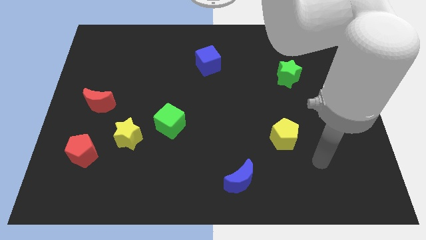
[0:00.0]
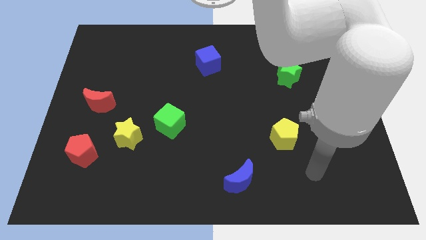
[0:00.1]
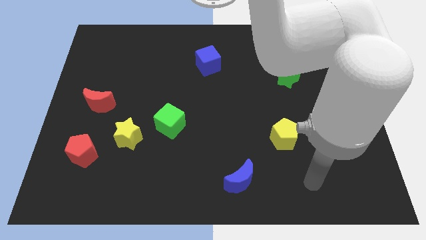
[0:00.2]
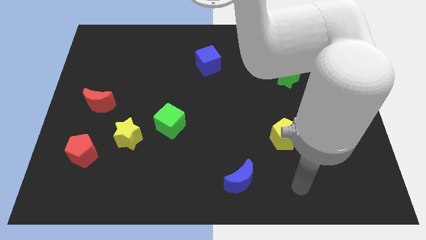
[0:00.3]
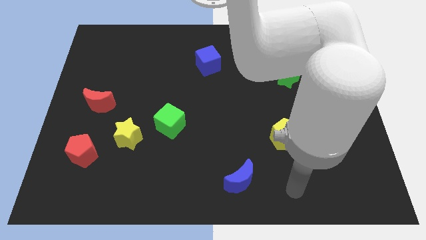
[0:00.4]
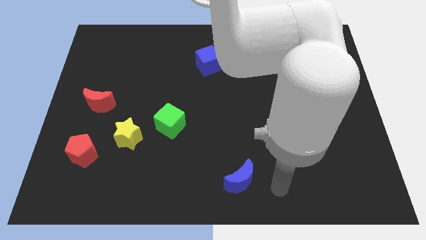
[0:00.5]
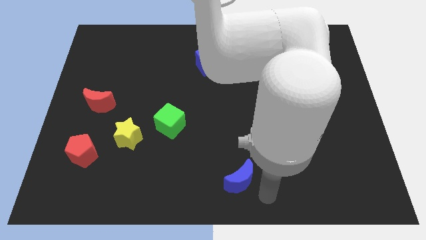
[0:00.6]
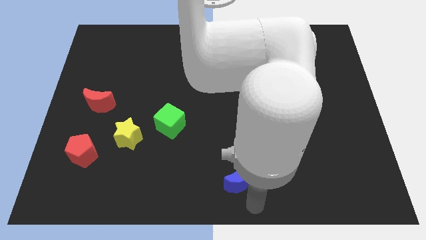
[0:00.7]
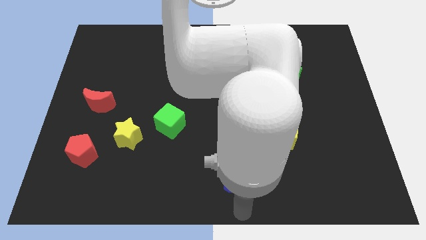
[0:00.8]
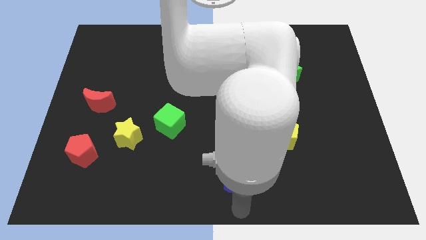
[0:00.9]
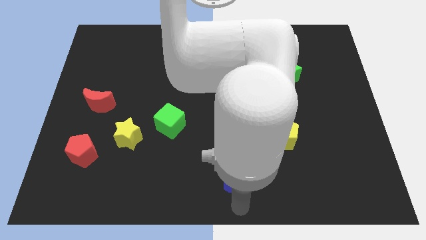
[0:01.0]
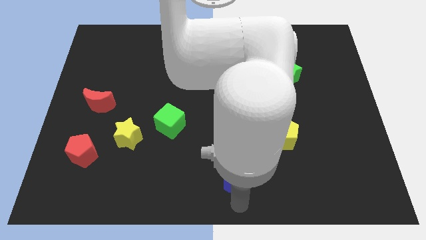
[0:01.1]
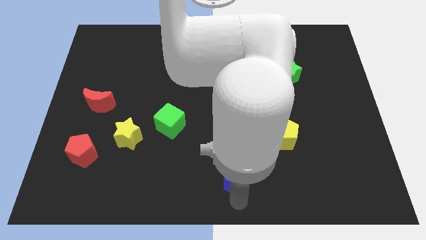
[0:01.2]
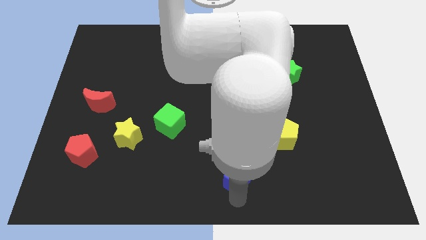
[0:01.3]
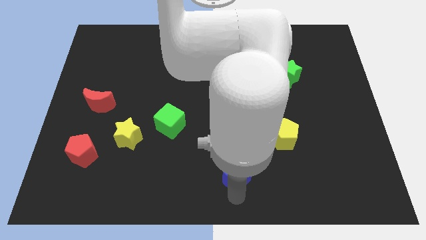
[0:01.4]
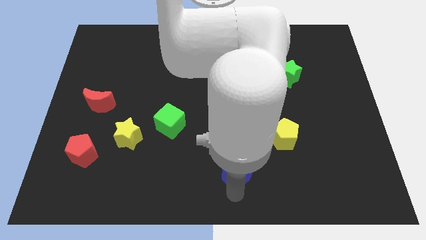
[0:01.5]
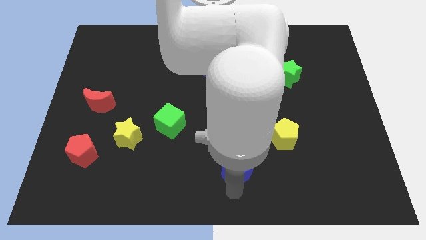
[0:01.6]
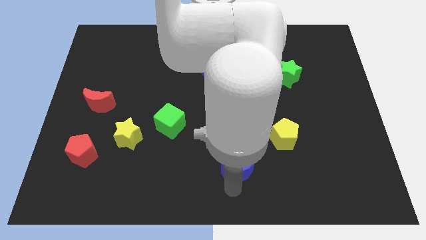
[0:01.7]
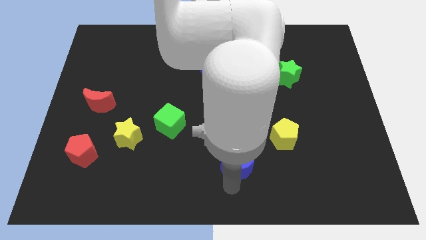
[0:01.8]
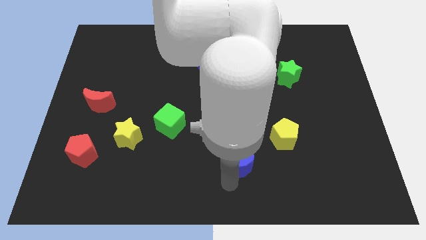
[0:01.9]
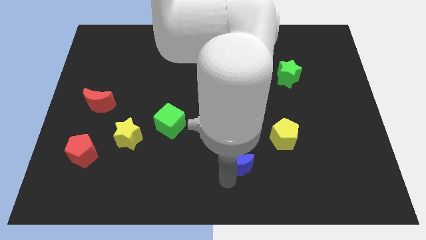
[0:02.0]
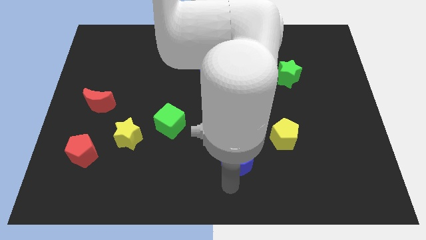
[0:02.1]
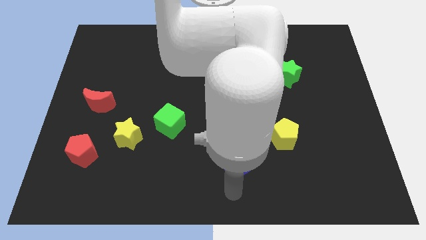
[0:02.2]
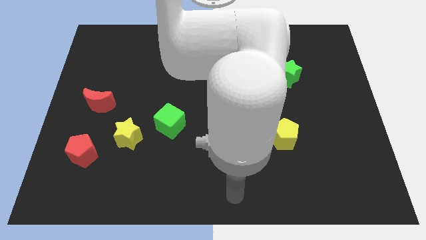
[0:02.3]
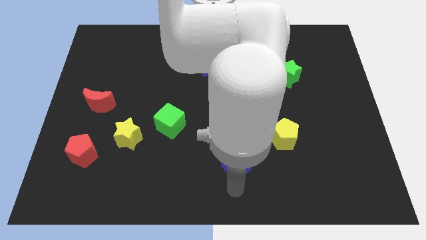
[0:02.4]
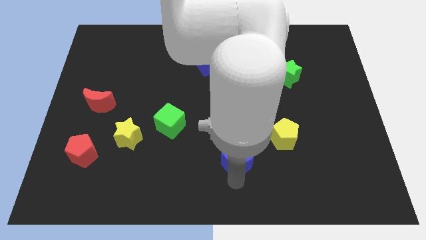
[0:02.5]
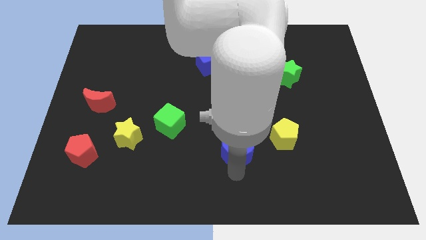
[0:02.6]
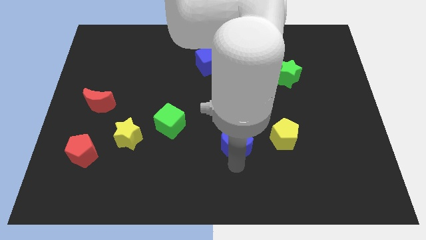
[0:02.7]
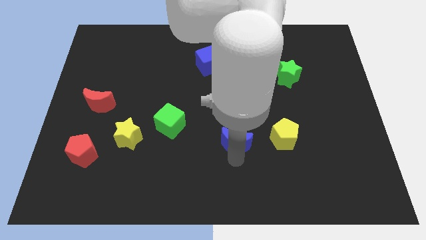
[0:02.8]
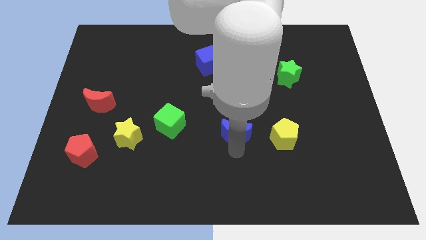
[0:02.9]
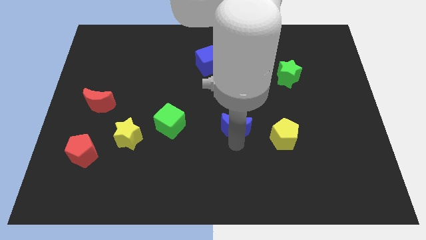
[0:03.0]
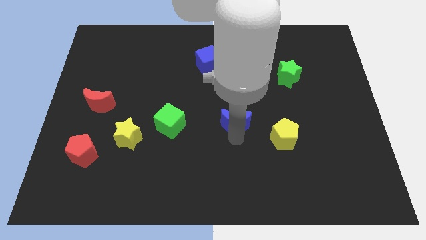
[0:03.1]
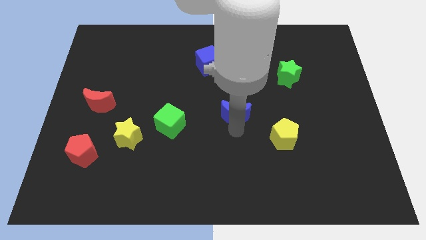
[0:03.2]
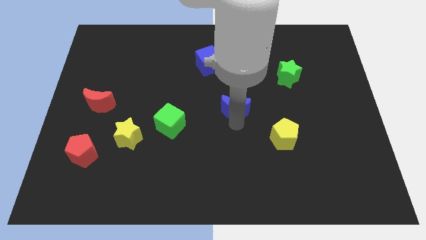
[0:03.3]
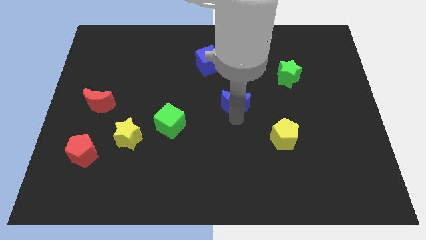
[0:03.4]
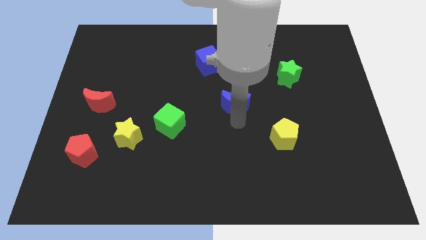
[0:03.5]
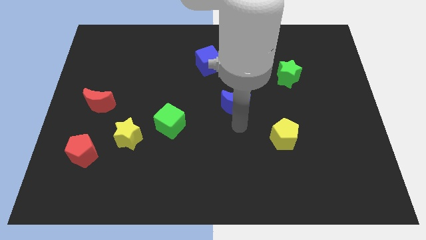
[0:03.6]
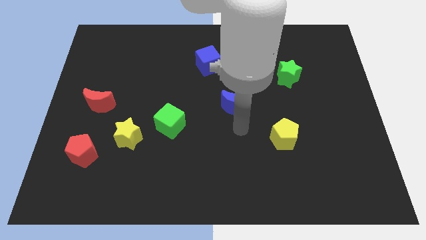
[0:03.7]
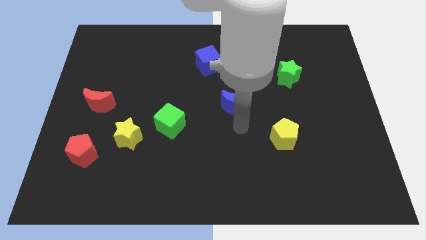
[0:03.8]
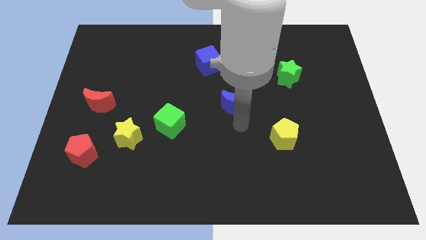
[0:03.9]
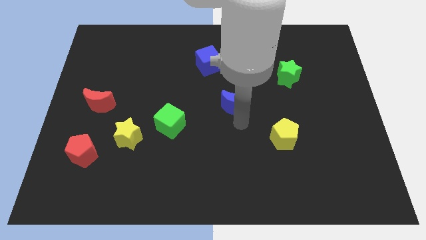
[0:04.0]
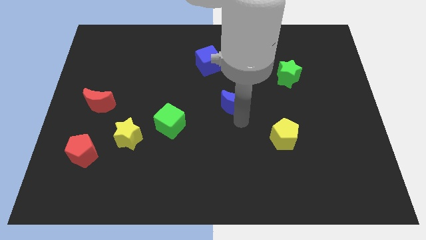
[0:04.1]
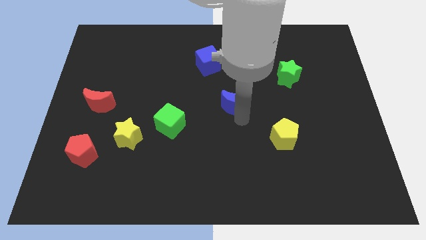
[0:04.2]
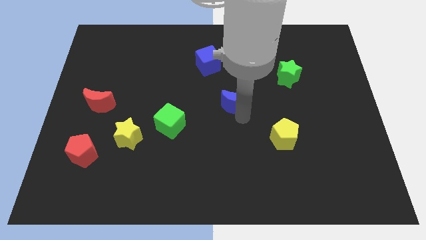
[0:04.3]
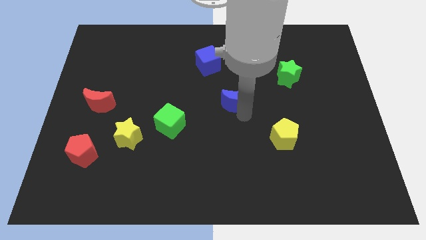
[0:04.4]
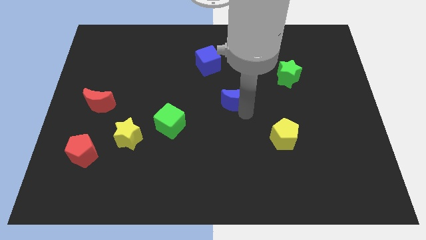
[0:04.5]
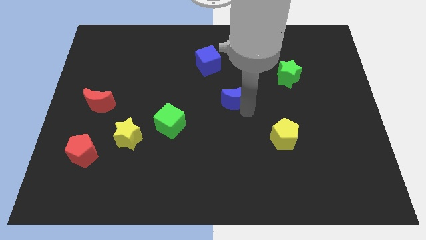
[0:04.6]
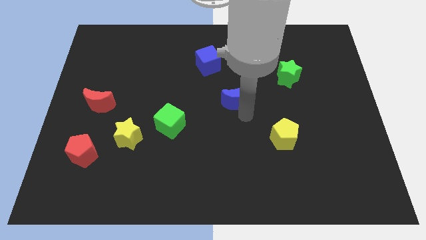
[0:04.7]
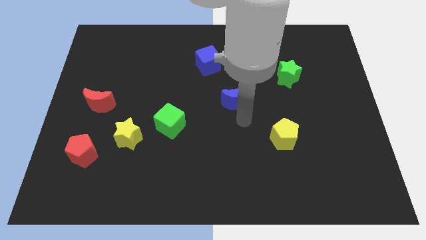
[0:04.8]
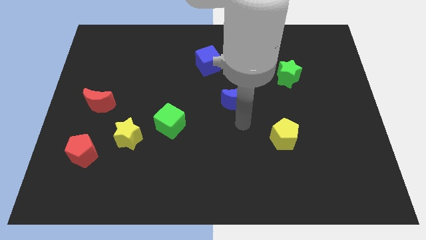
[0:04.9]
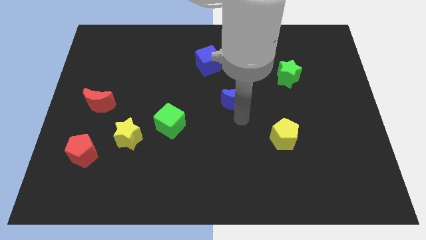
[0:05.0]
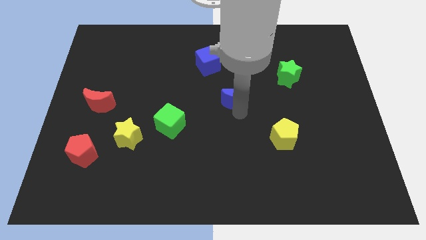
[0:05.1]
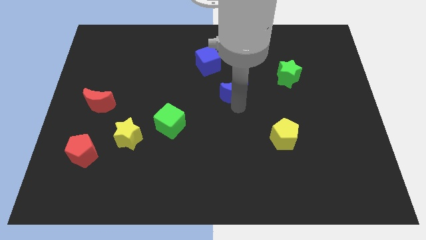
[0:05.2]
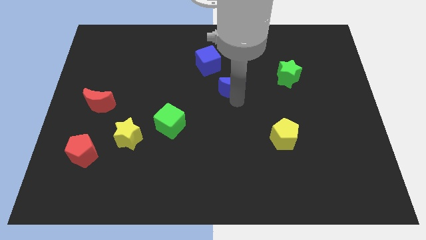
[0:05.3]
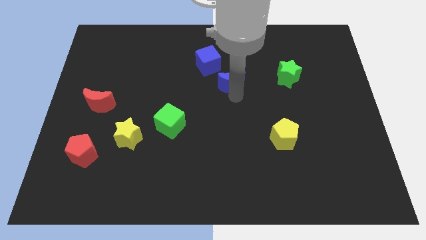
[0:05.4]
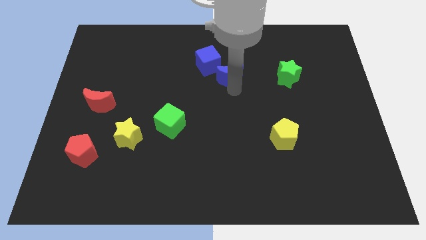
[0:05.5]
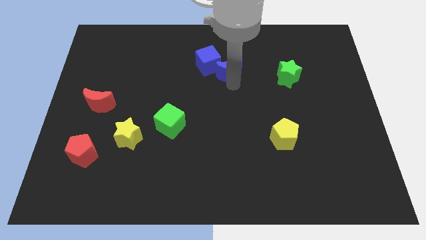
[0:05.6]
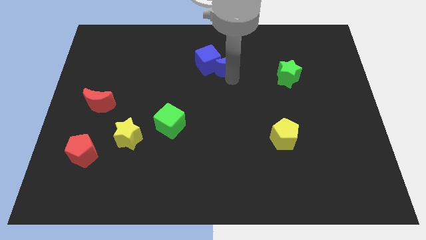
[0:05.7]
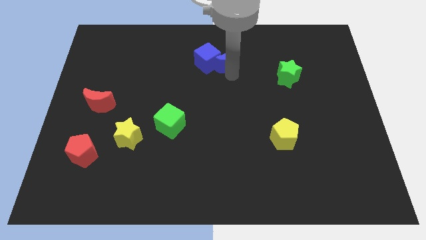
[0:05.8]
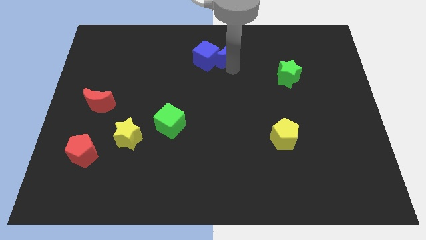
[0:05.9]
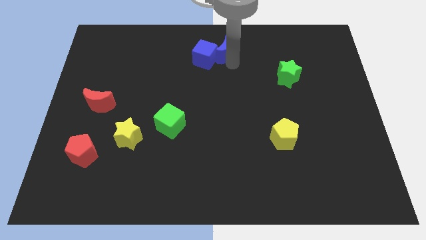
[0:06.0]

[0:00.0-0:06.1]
push the blue moon to the towards your base
